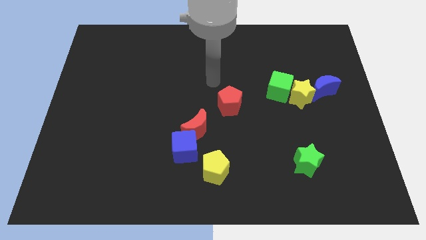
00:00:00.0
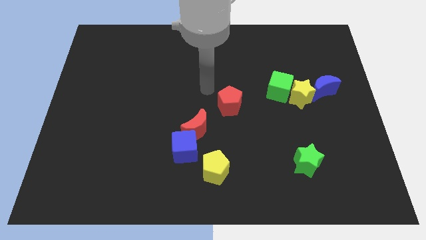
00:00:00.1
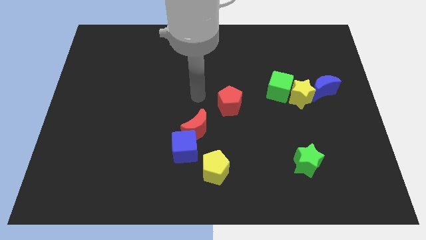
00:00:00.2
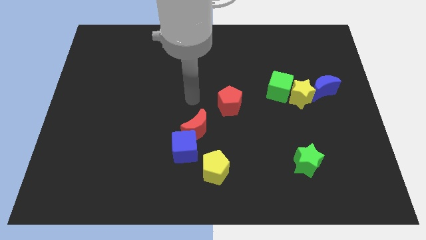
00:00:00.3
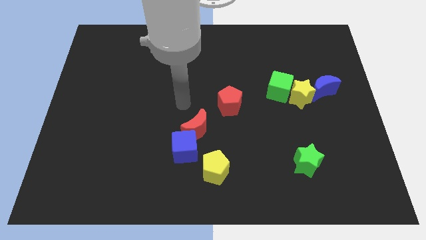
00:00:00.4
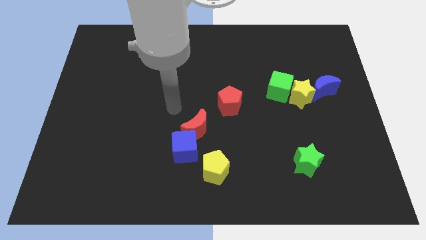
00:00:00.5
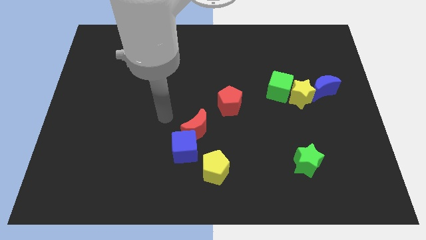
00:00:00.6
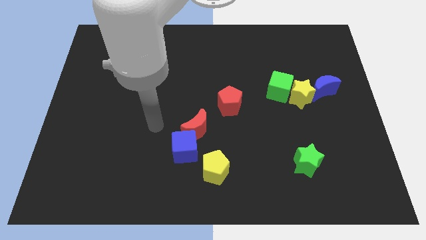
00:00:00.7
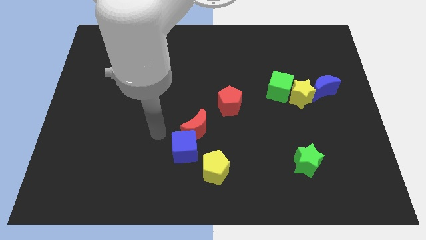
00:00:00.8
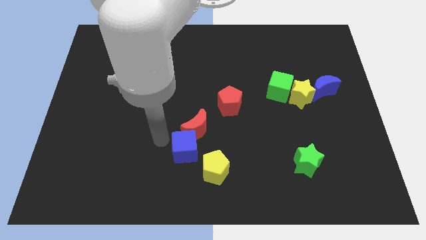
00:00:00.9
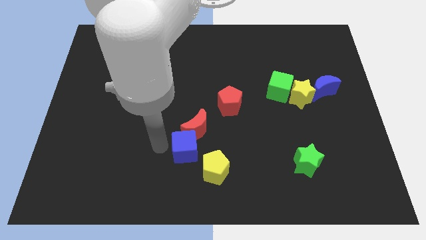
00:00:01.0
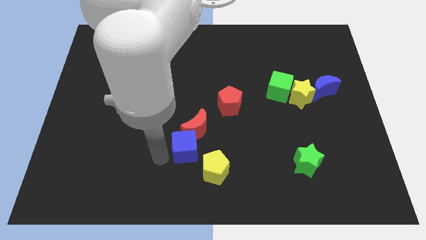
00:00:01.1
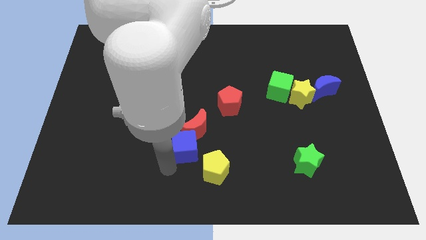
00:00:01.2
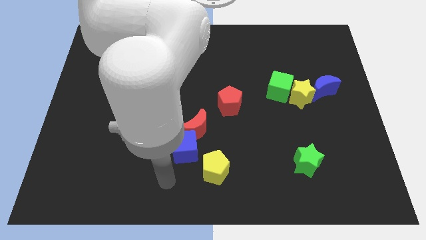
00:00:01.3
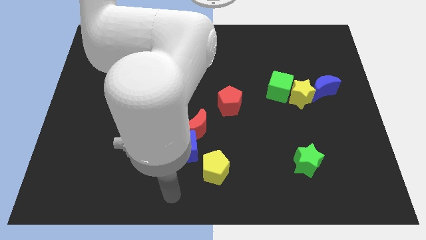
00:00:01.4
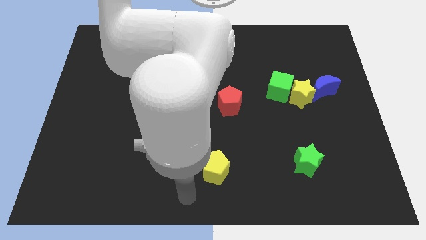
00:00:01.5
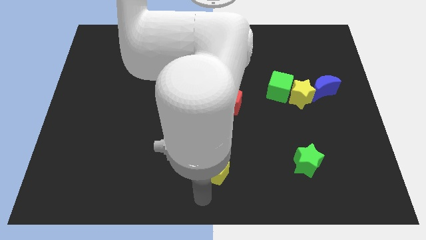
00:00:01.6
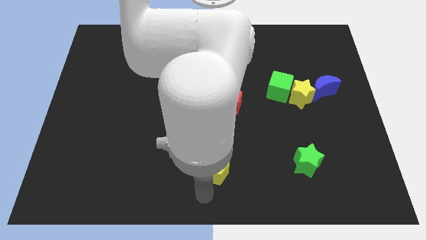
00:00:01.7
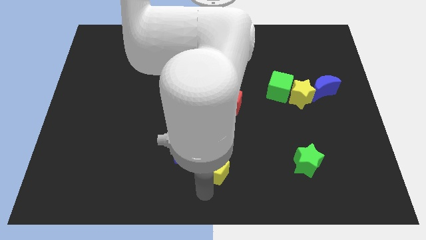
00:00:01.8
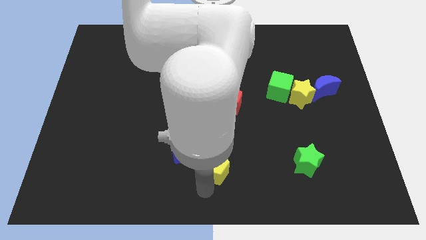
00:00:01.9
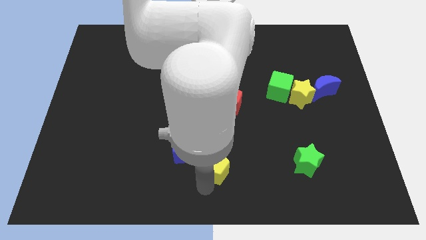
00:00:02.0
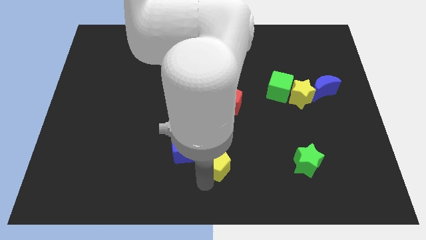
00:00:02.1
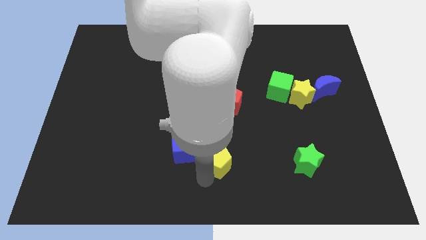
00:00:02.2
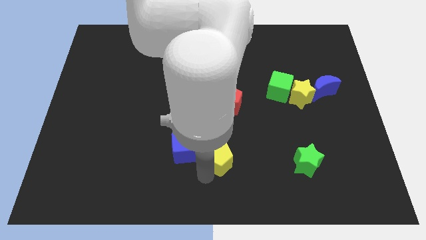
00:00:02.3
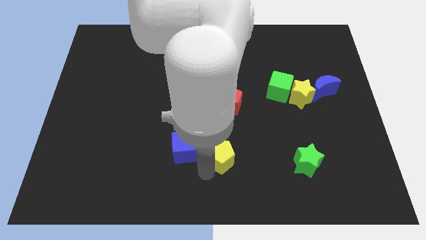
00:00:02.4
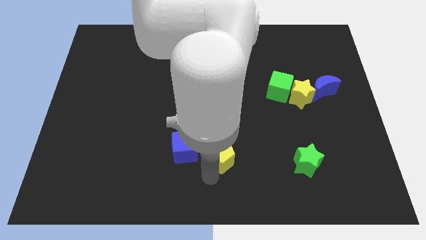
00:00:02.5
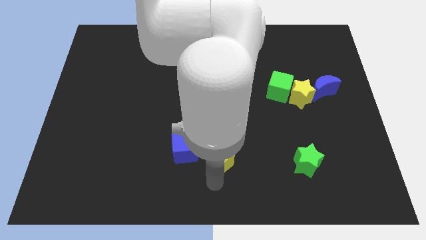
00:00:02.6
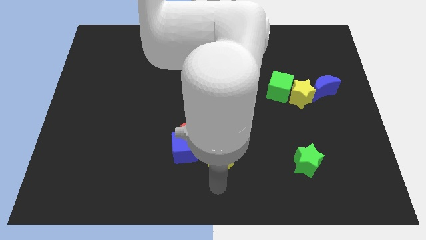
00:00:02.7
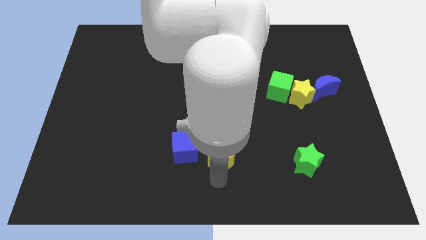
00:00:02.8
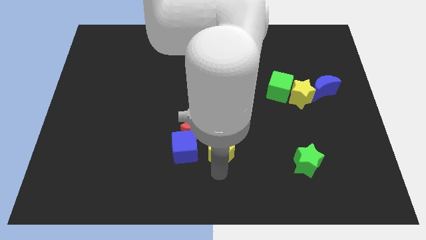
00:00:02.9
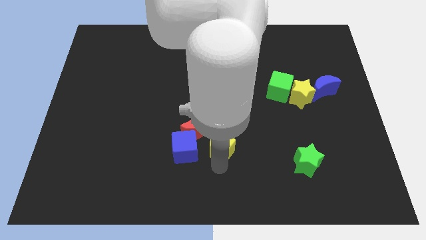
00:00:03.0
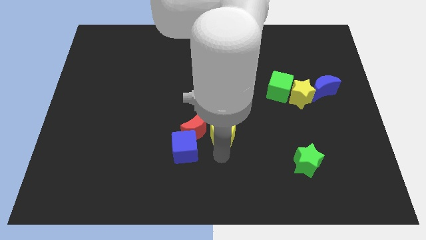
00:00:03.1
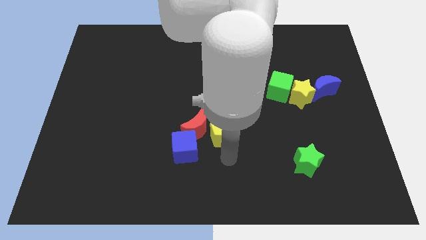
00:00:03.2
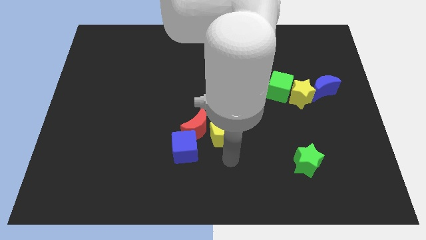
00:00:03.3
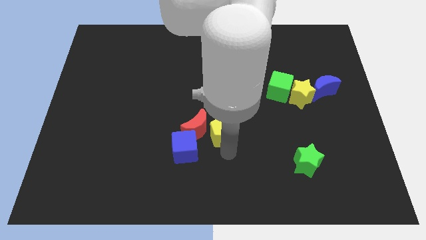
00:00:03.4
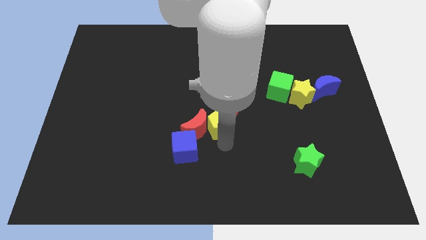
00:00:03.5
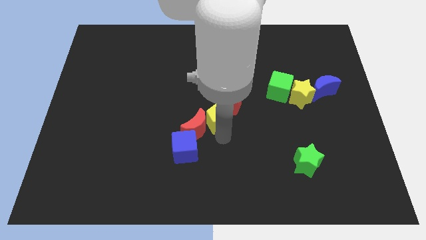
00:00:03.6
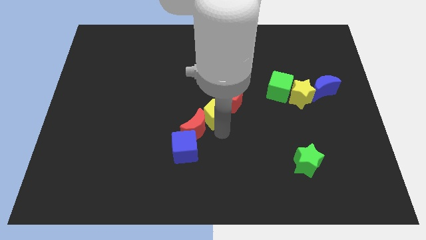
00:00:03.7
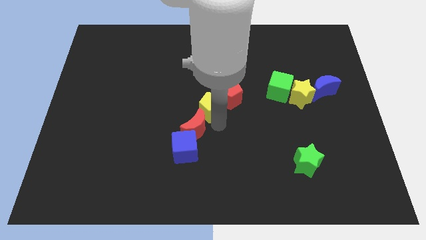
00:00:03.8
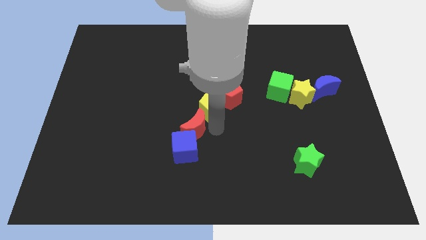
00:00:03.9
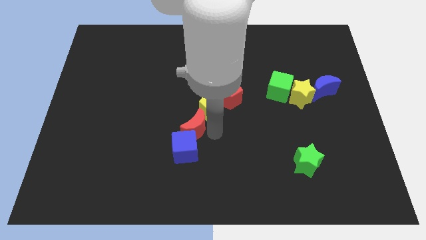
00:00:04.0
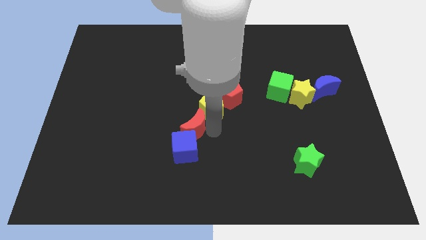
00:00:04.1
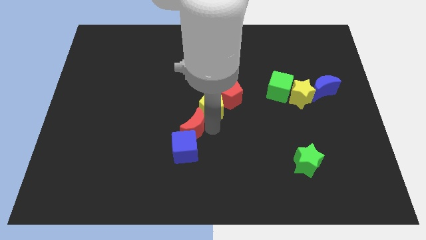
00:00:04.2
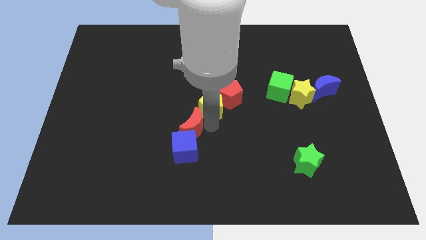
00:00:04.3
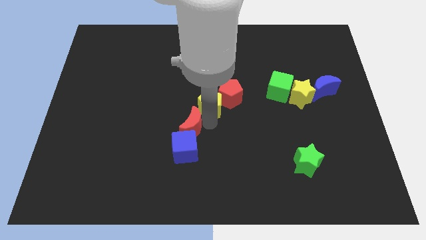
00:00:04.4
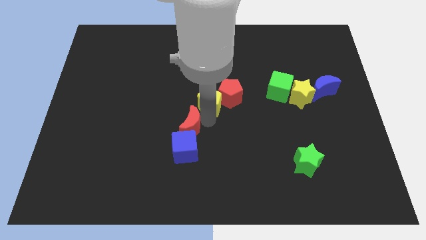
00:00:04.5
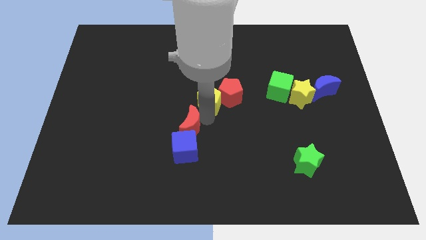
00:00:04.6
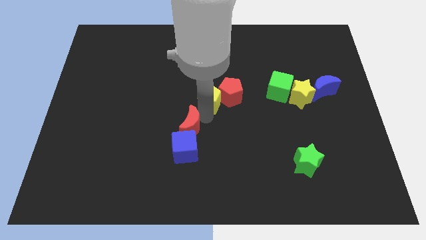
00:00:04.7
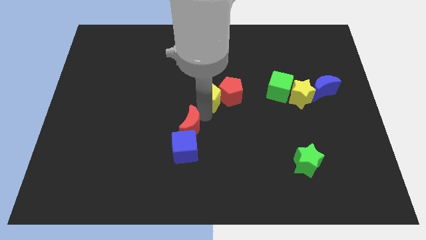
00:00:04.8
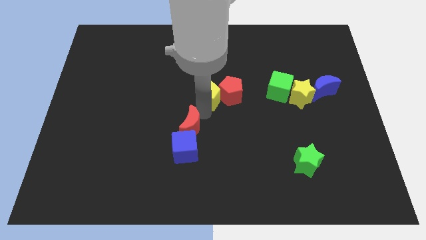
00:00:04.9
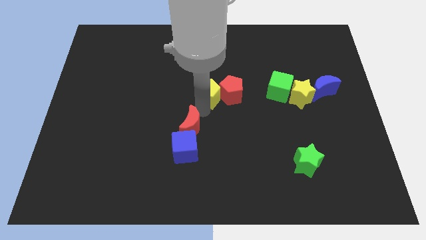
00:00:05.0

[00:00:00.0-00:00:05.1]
slide the yellow pentagon up

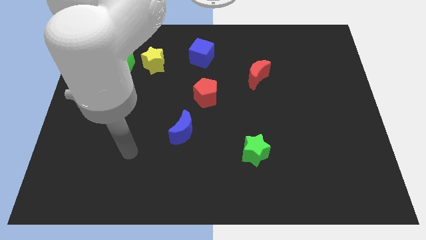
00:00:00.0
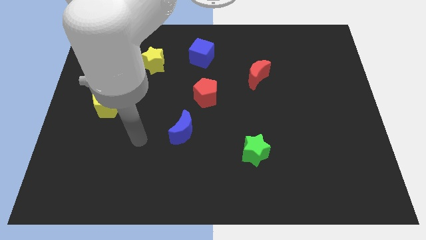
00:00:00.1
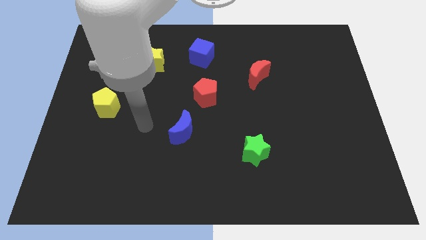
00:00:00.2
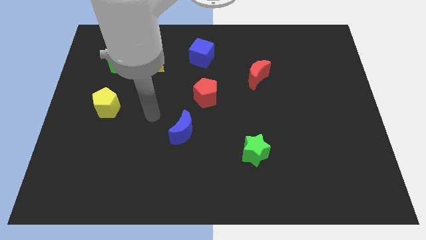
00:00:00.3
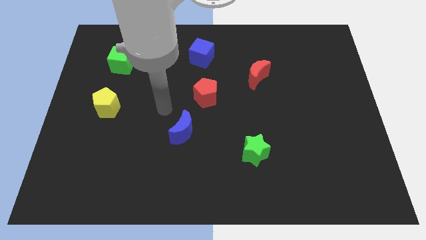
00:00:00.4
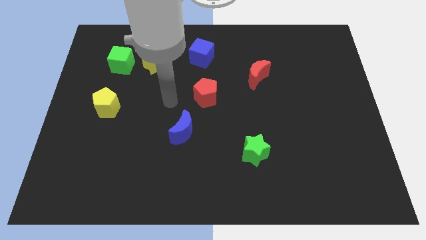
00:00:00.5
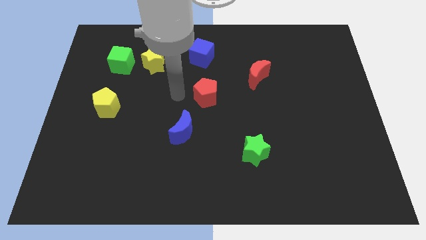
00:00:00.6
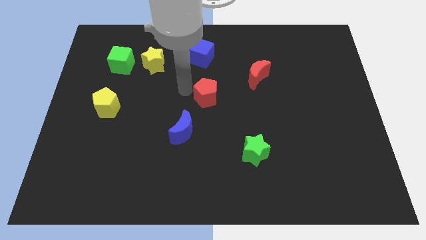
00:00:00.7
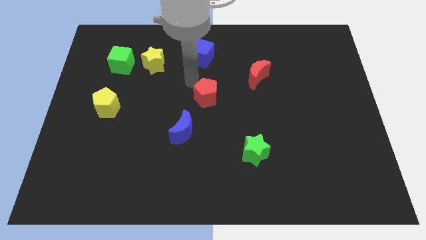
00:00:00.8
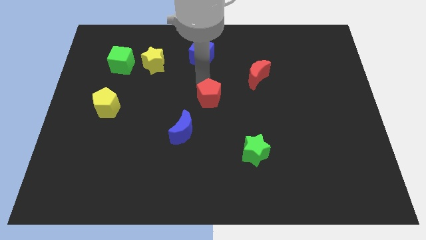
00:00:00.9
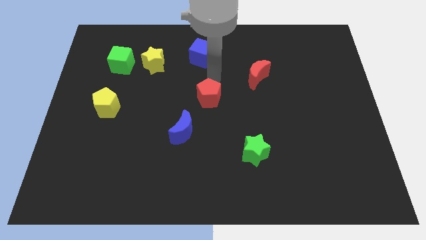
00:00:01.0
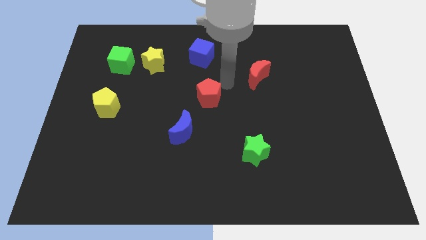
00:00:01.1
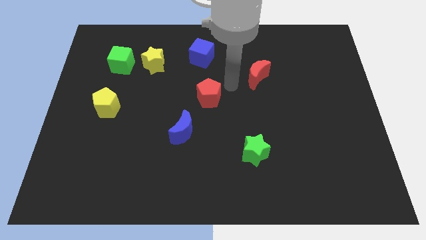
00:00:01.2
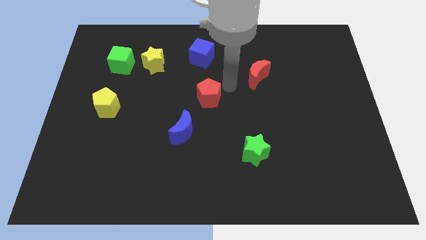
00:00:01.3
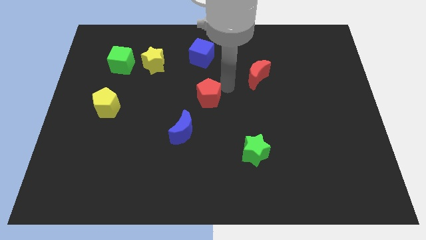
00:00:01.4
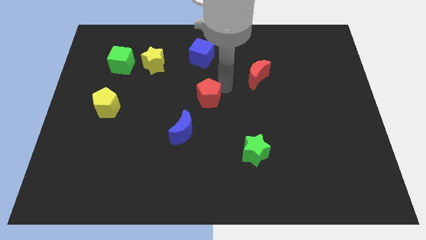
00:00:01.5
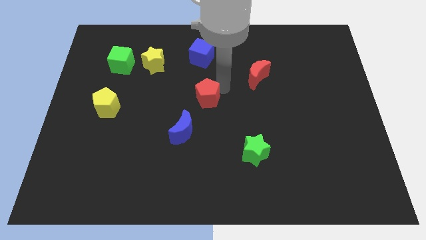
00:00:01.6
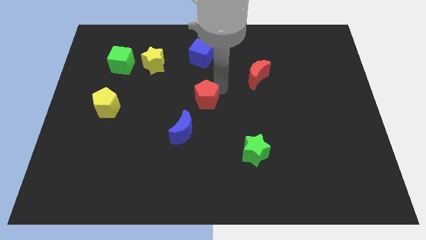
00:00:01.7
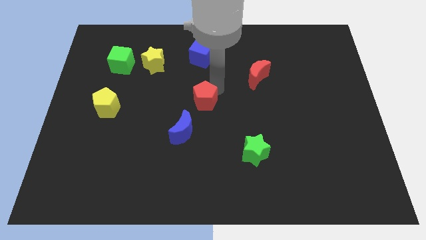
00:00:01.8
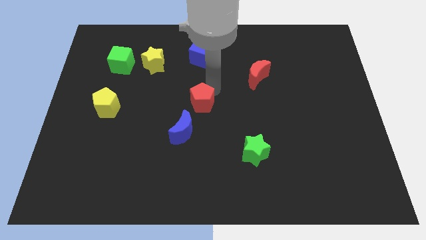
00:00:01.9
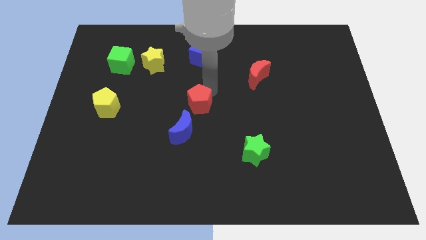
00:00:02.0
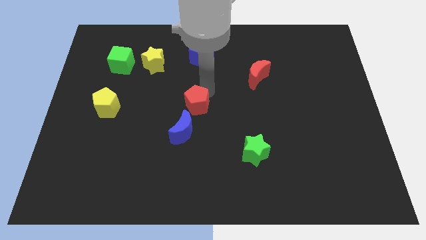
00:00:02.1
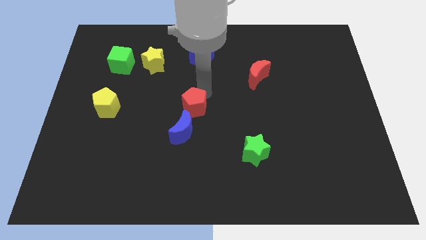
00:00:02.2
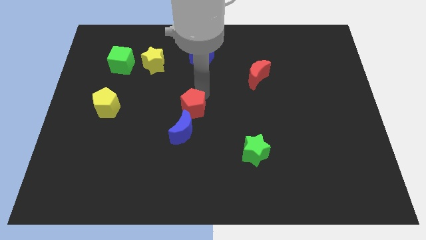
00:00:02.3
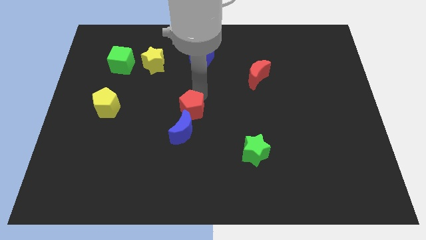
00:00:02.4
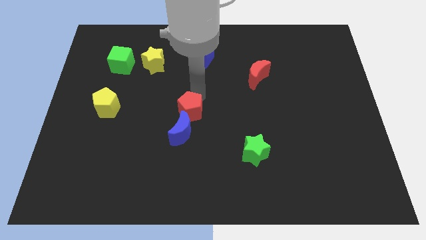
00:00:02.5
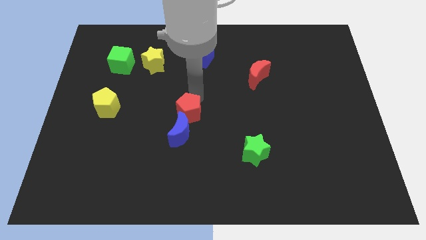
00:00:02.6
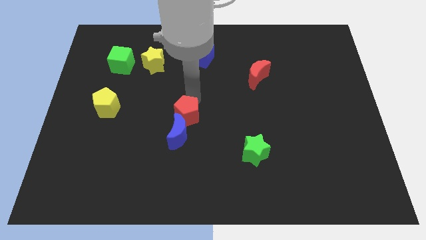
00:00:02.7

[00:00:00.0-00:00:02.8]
slightly move the red pentagon diagonally down and left

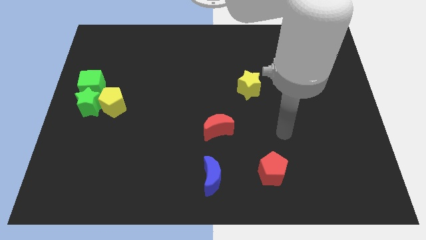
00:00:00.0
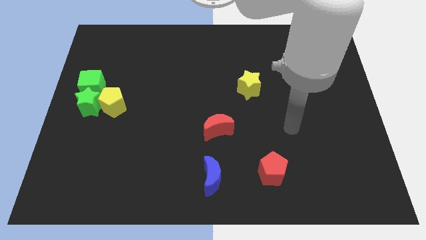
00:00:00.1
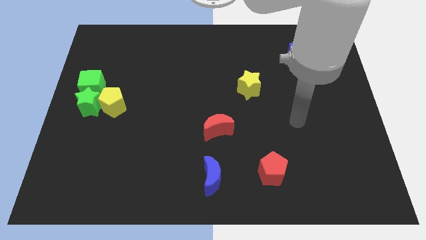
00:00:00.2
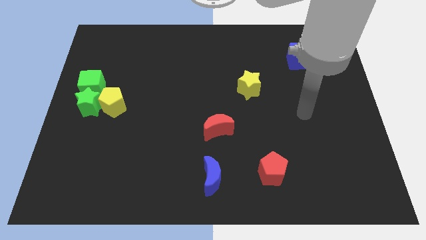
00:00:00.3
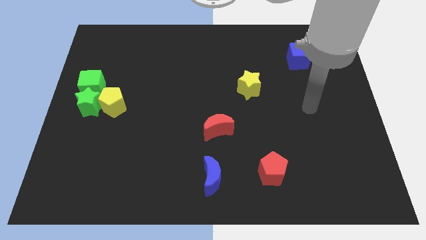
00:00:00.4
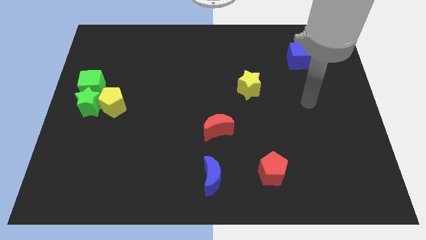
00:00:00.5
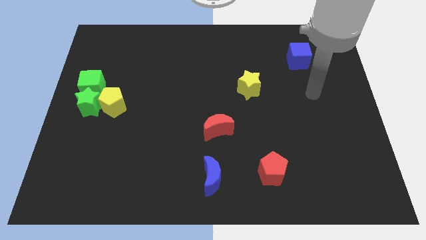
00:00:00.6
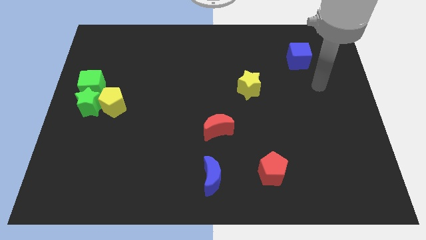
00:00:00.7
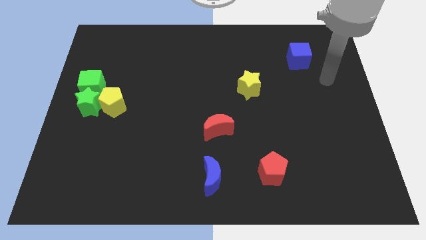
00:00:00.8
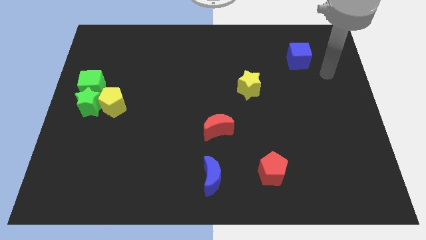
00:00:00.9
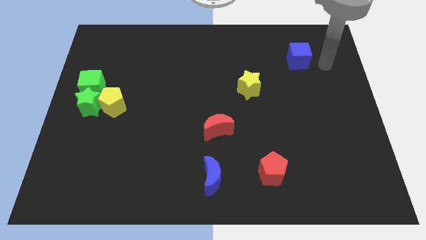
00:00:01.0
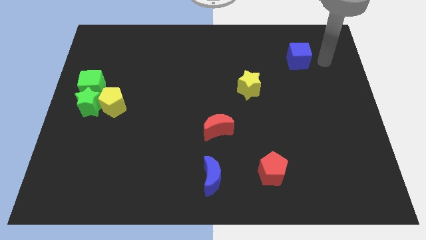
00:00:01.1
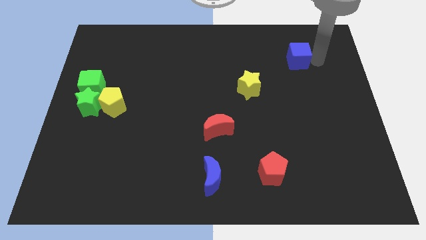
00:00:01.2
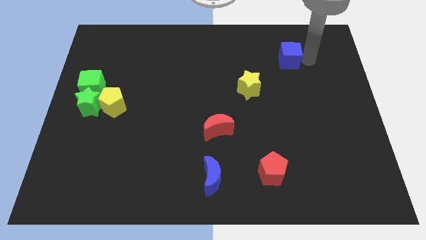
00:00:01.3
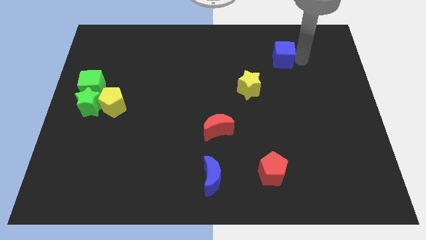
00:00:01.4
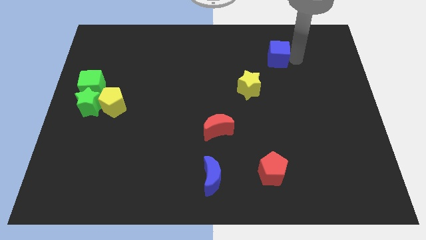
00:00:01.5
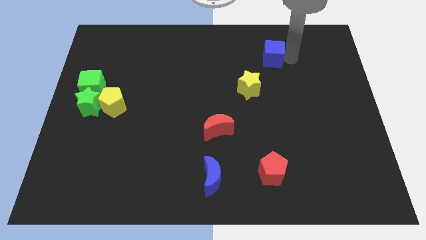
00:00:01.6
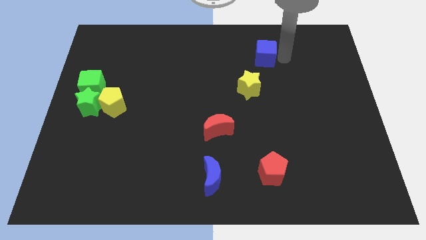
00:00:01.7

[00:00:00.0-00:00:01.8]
push the blue cube a little bit left
